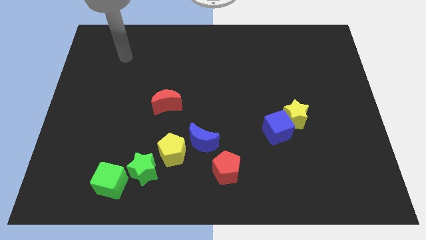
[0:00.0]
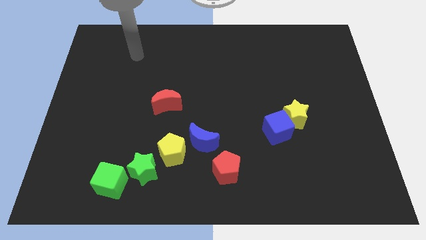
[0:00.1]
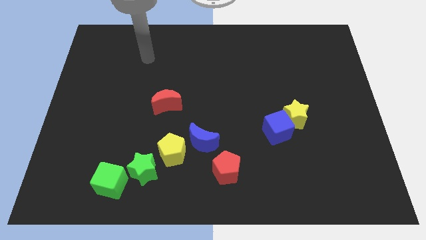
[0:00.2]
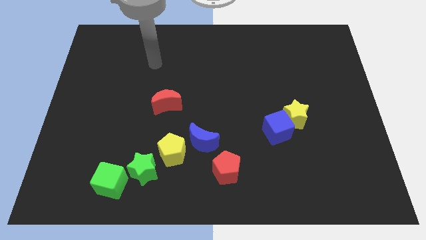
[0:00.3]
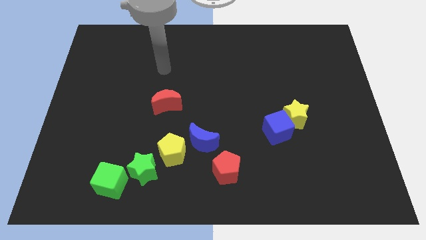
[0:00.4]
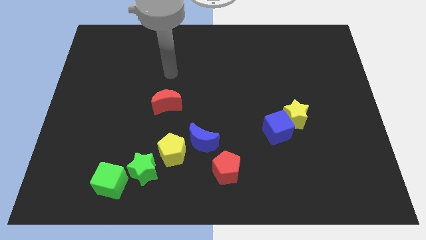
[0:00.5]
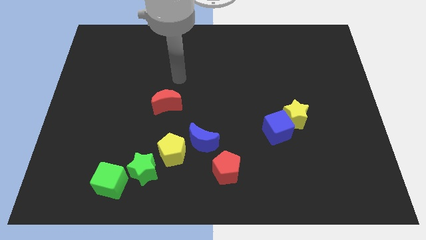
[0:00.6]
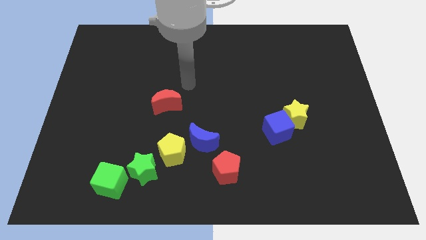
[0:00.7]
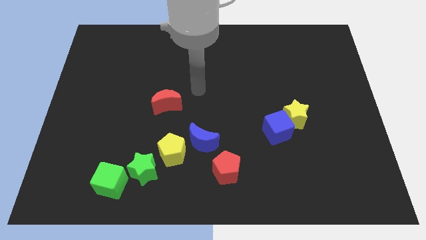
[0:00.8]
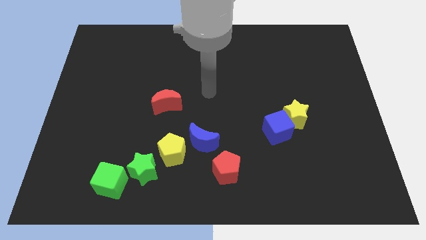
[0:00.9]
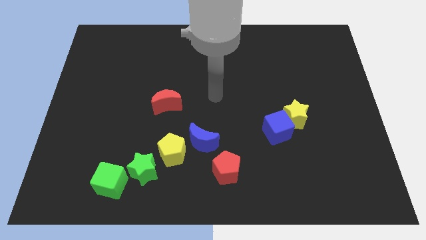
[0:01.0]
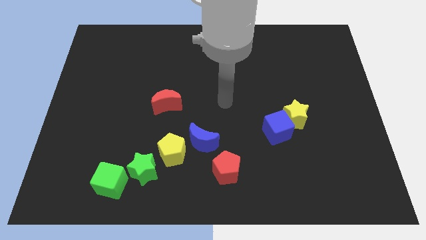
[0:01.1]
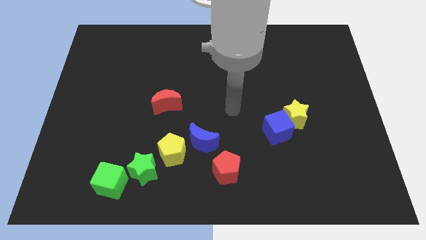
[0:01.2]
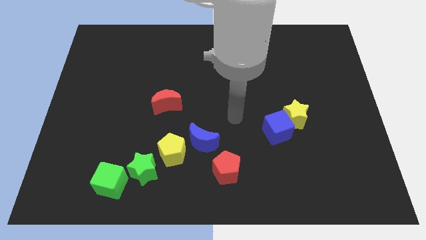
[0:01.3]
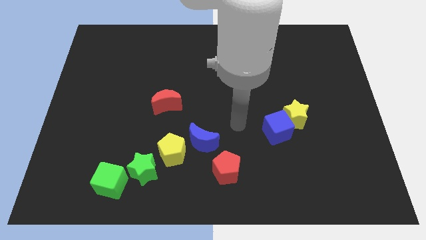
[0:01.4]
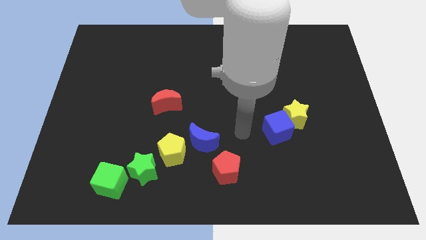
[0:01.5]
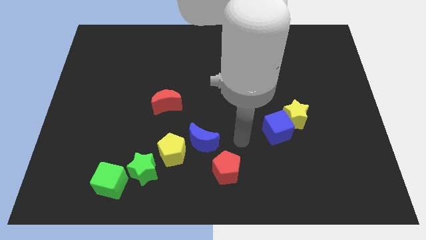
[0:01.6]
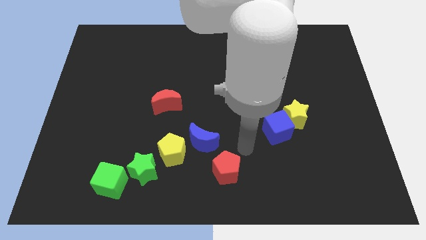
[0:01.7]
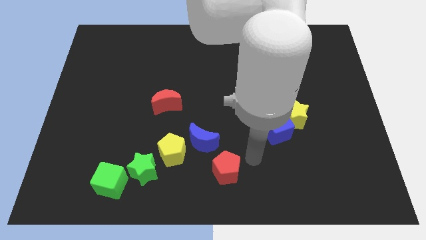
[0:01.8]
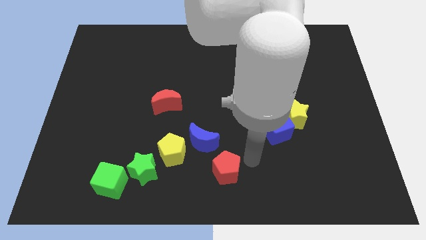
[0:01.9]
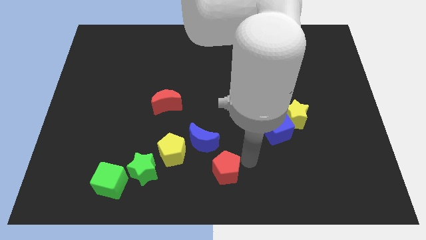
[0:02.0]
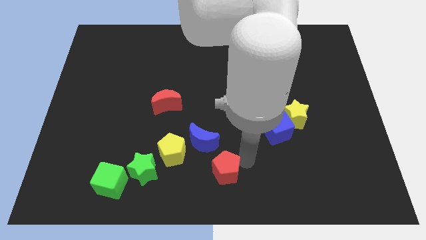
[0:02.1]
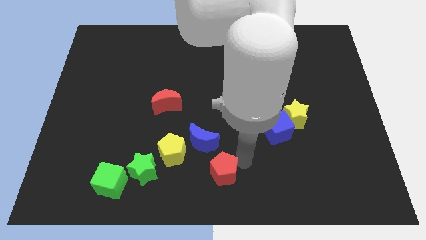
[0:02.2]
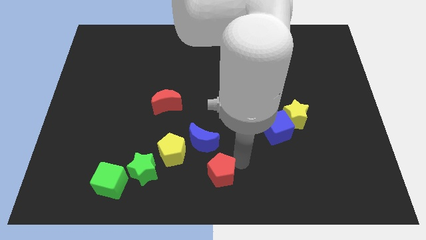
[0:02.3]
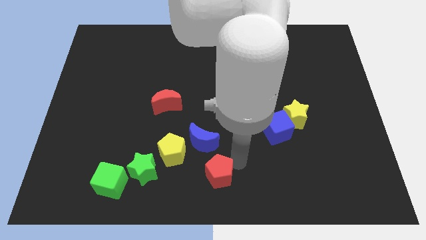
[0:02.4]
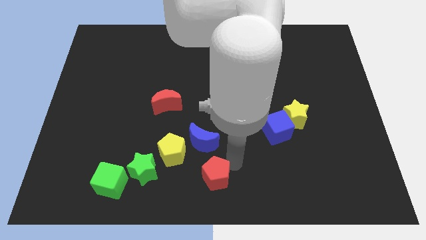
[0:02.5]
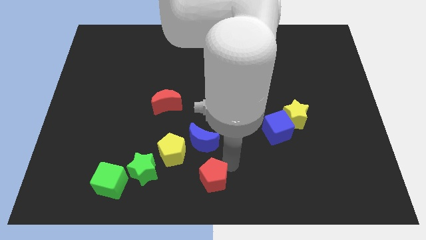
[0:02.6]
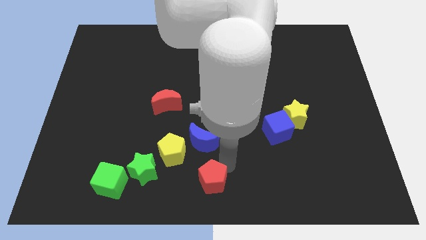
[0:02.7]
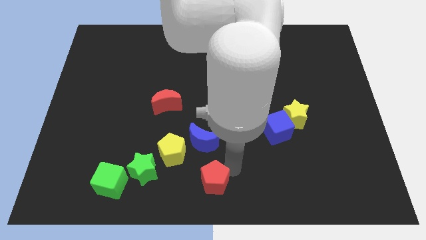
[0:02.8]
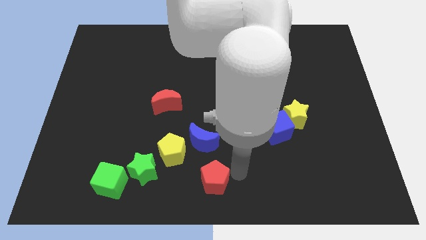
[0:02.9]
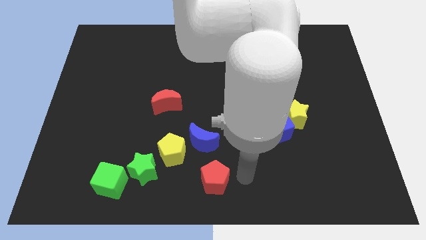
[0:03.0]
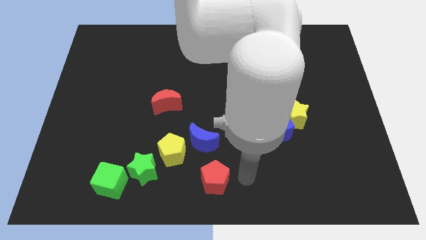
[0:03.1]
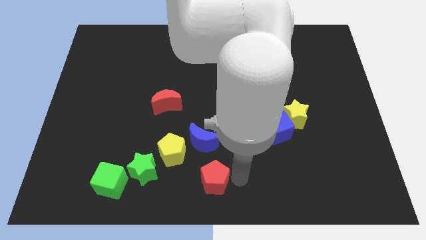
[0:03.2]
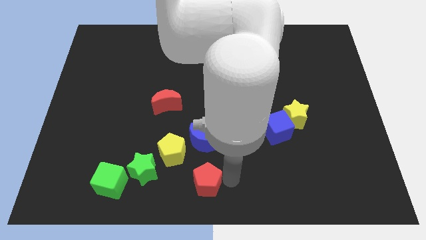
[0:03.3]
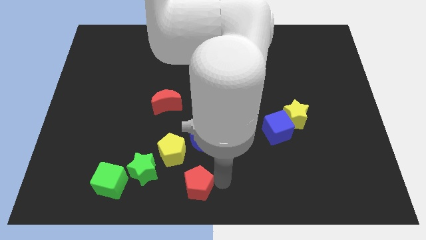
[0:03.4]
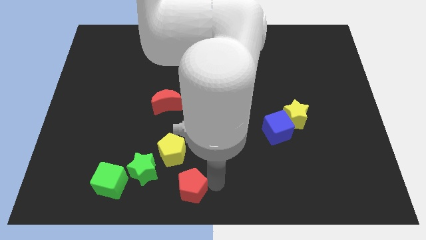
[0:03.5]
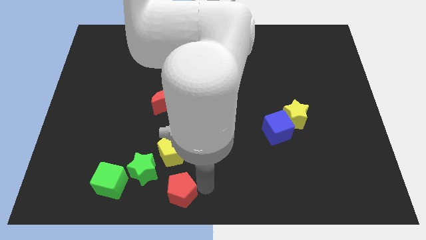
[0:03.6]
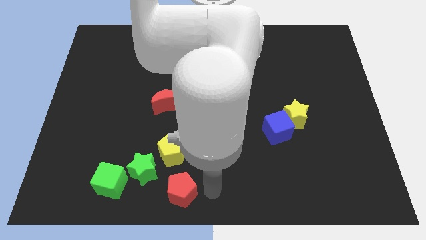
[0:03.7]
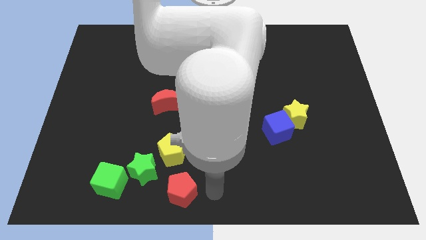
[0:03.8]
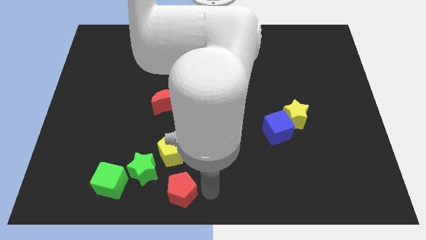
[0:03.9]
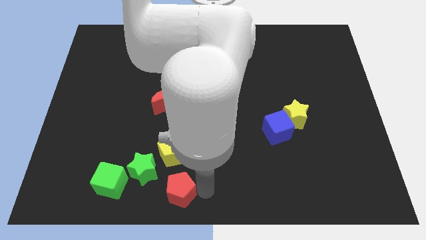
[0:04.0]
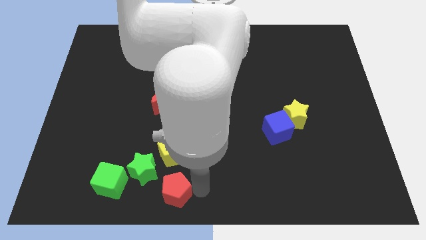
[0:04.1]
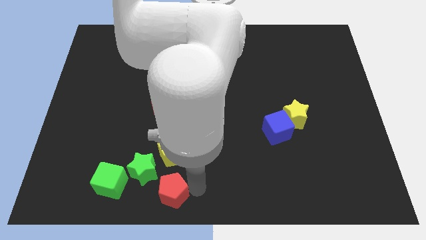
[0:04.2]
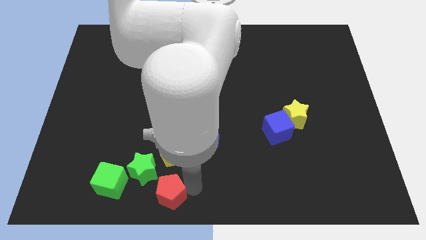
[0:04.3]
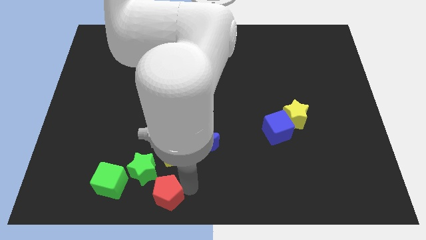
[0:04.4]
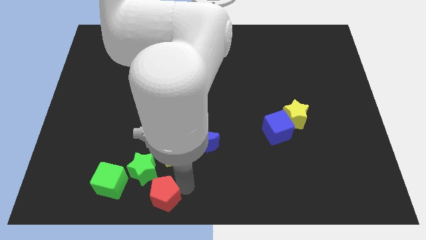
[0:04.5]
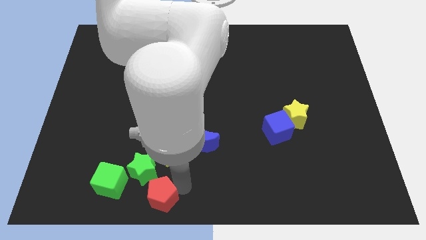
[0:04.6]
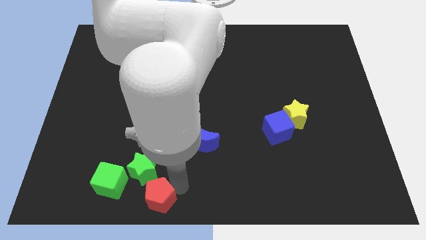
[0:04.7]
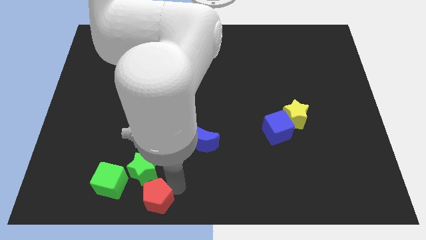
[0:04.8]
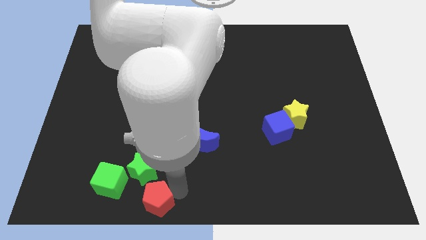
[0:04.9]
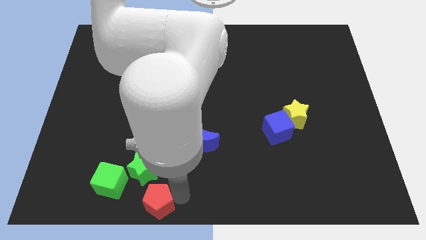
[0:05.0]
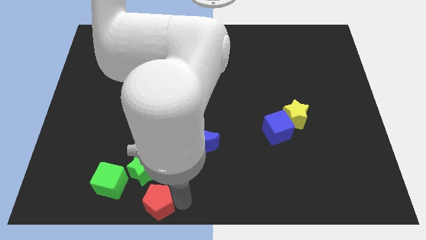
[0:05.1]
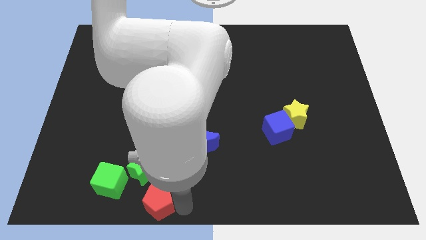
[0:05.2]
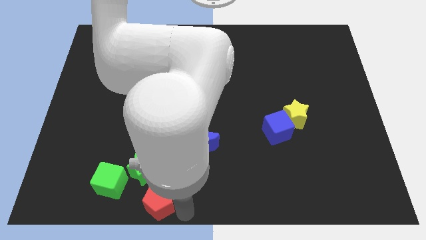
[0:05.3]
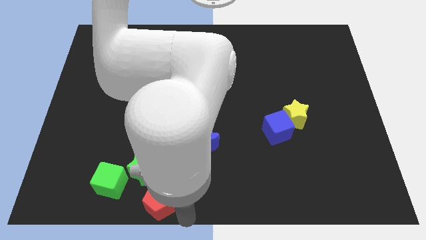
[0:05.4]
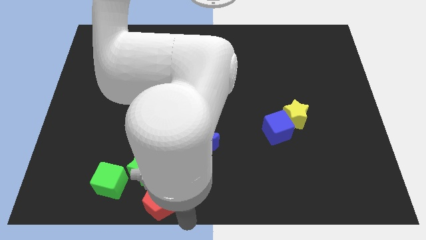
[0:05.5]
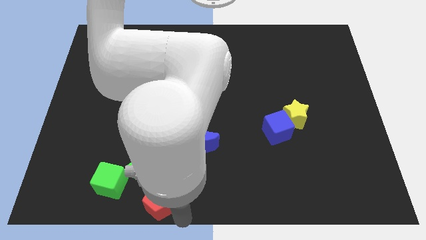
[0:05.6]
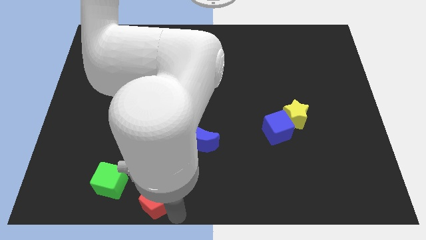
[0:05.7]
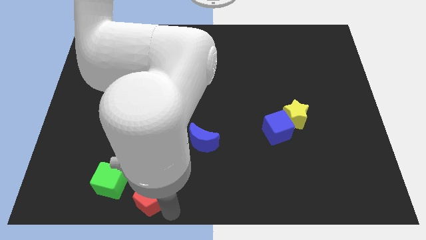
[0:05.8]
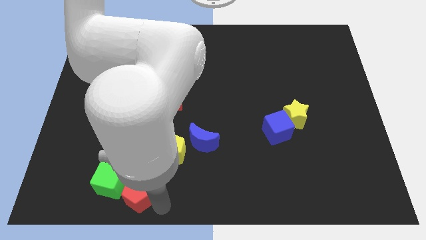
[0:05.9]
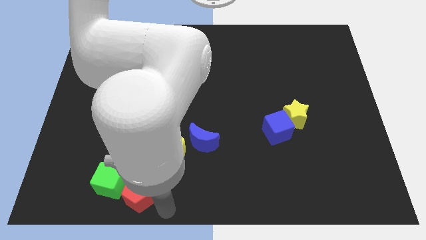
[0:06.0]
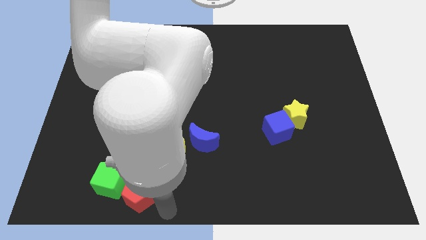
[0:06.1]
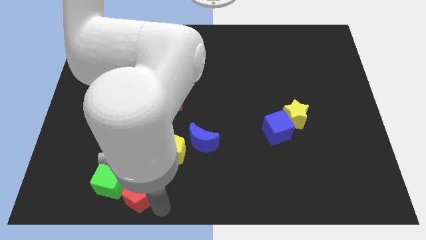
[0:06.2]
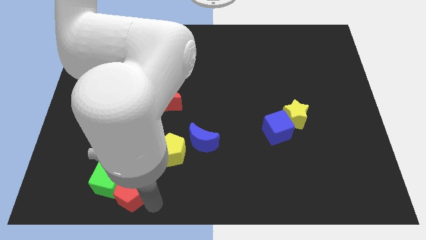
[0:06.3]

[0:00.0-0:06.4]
put the red pentagon towards the green cube

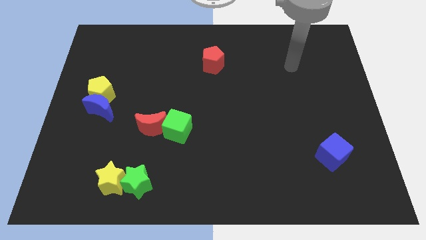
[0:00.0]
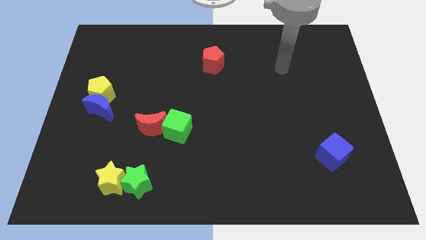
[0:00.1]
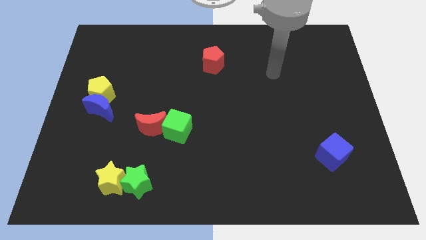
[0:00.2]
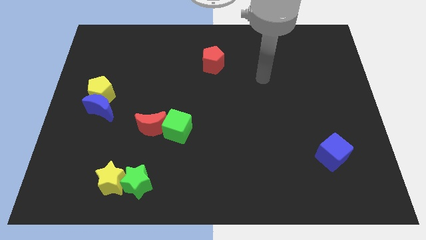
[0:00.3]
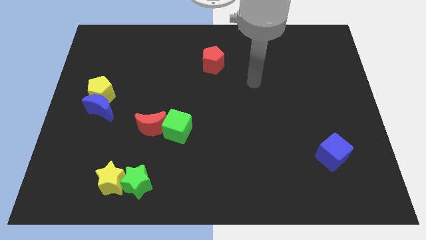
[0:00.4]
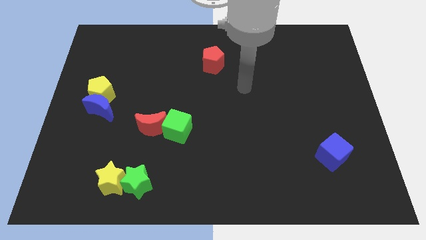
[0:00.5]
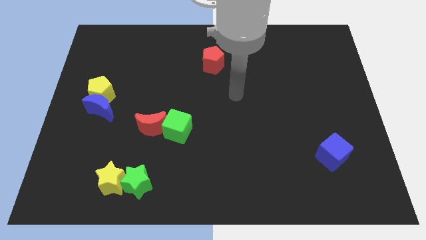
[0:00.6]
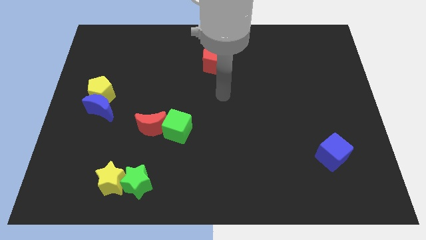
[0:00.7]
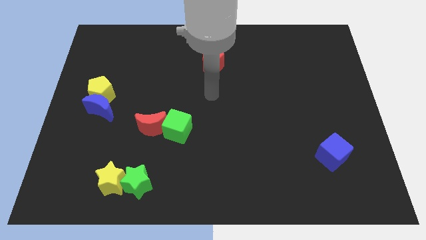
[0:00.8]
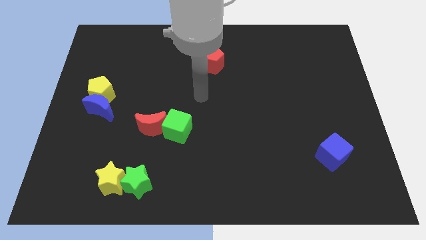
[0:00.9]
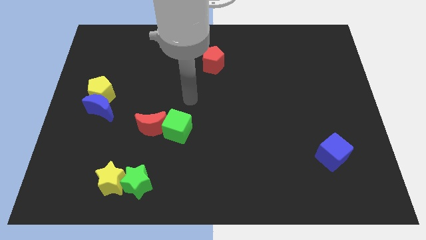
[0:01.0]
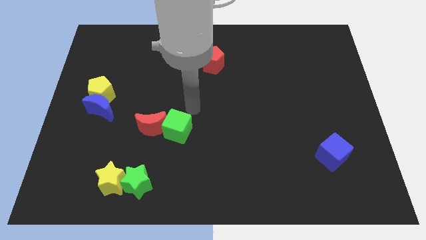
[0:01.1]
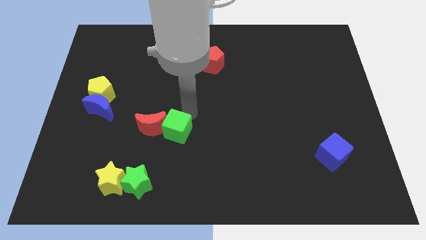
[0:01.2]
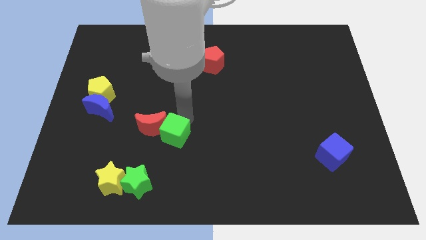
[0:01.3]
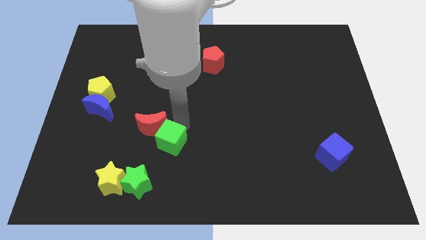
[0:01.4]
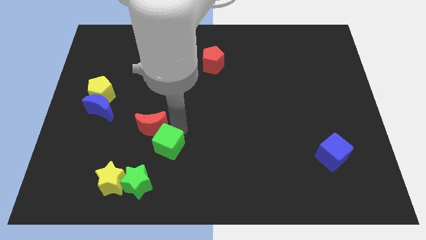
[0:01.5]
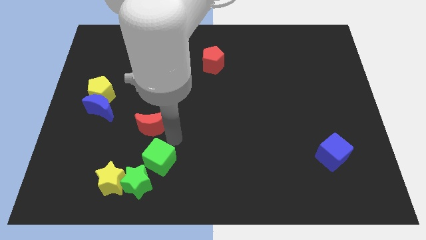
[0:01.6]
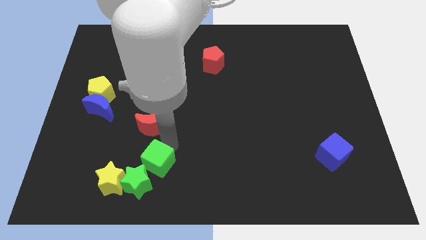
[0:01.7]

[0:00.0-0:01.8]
slide the green cube next to the green star
